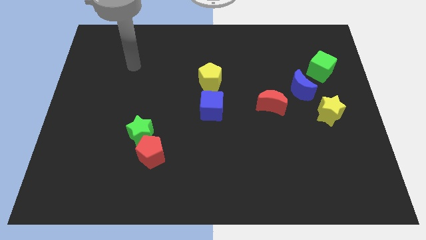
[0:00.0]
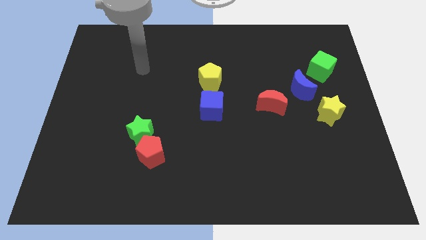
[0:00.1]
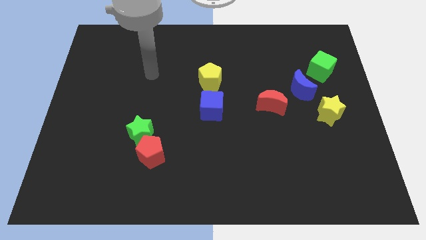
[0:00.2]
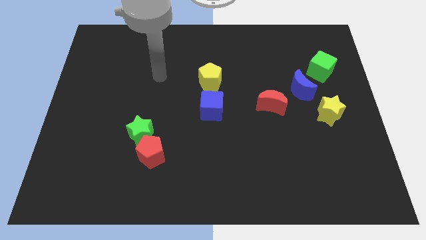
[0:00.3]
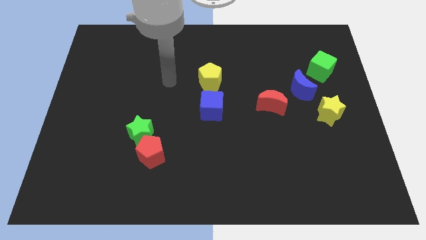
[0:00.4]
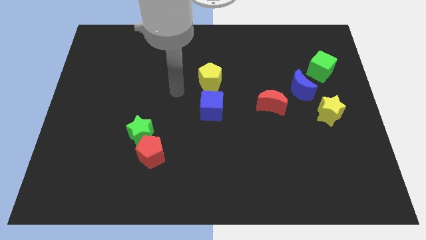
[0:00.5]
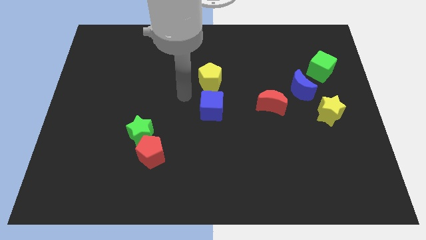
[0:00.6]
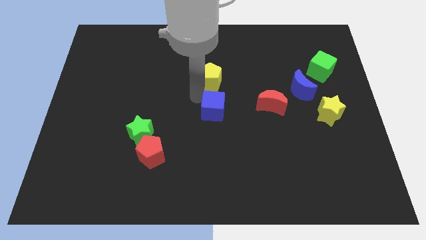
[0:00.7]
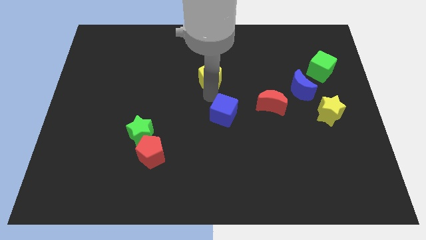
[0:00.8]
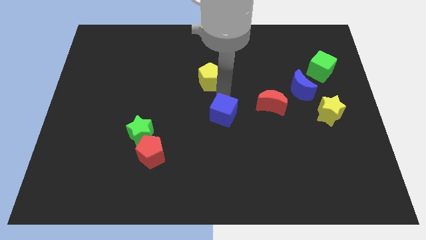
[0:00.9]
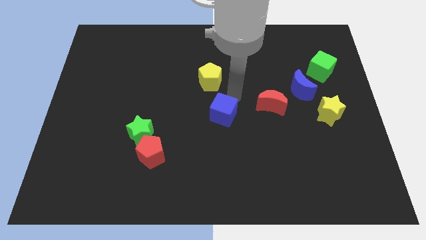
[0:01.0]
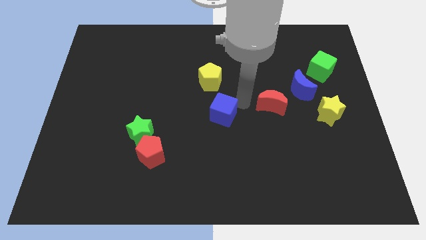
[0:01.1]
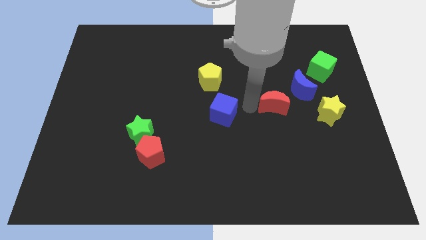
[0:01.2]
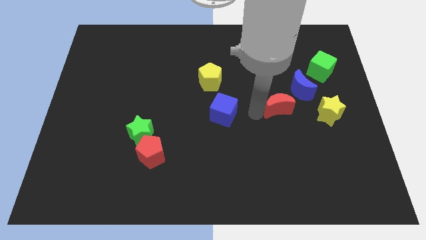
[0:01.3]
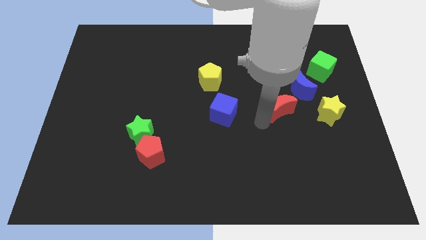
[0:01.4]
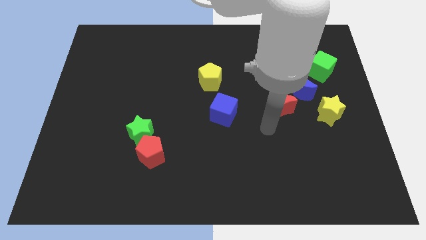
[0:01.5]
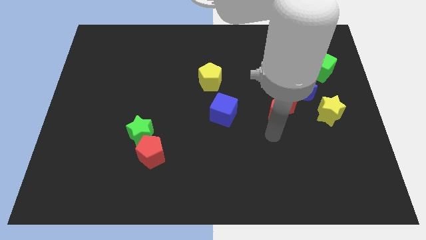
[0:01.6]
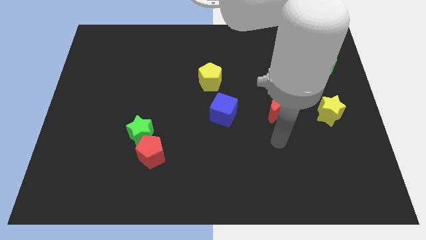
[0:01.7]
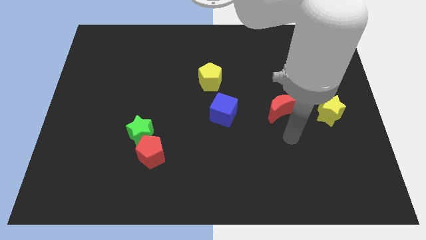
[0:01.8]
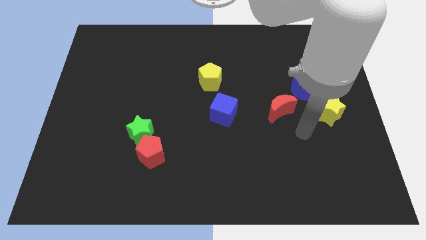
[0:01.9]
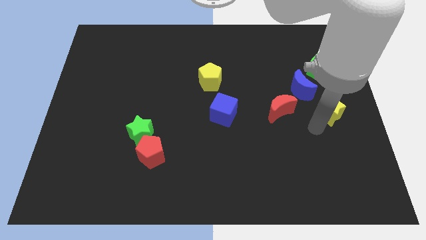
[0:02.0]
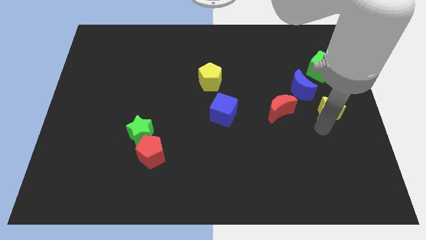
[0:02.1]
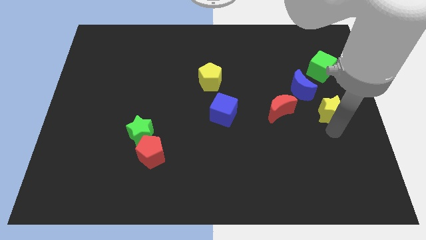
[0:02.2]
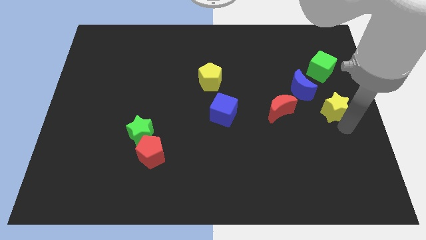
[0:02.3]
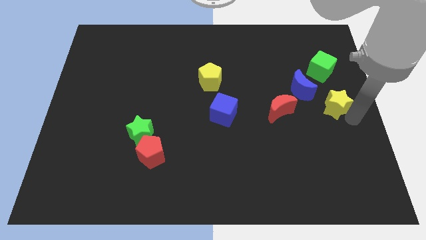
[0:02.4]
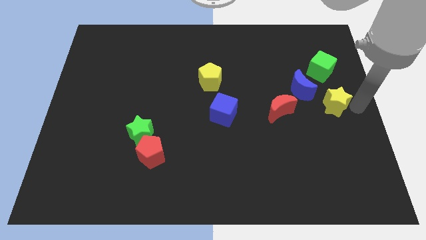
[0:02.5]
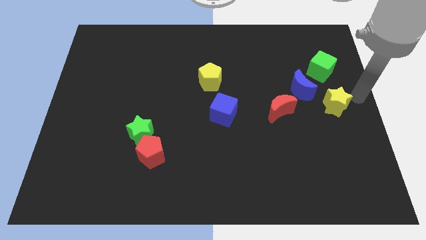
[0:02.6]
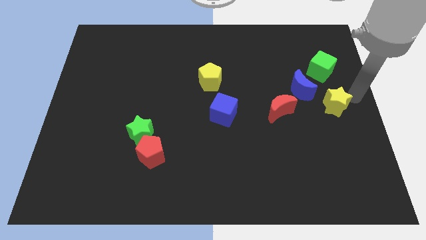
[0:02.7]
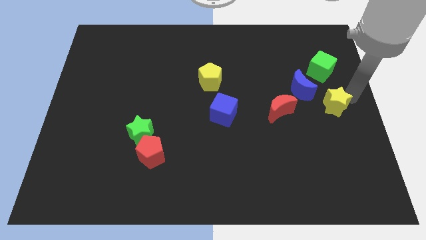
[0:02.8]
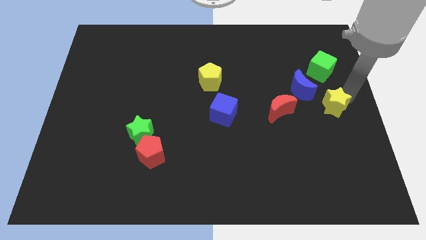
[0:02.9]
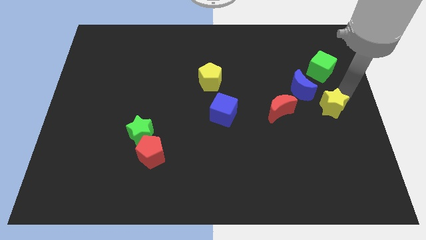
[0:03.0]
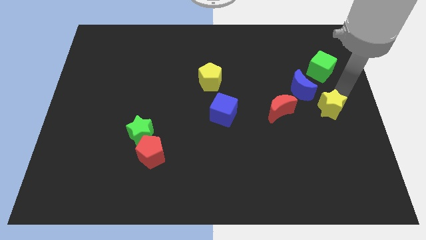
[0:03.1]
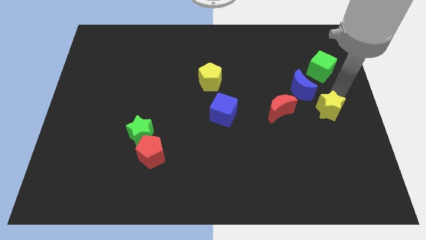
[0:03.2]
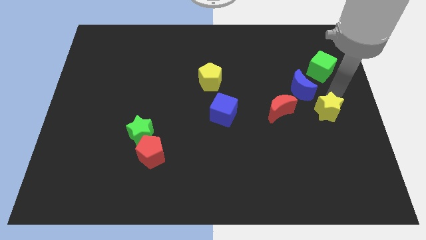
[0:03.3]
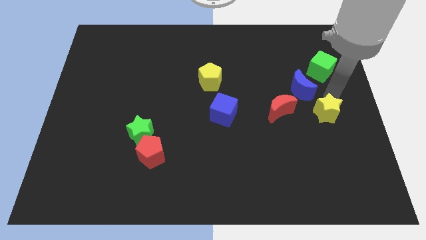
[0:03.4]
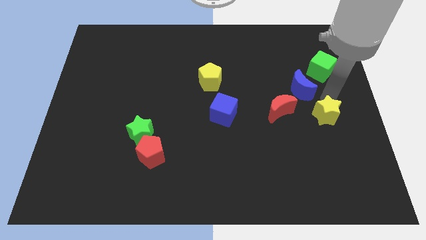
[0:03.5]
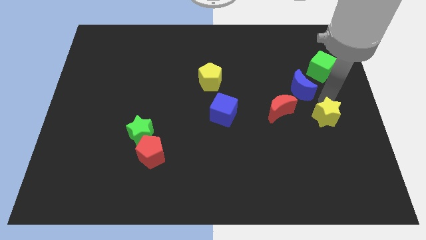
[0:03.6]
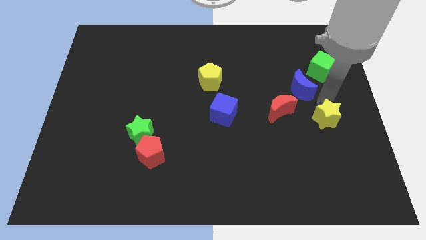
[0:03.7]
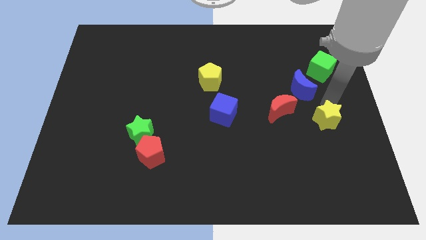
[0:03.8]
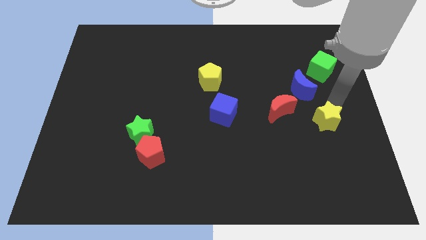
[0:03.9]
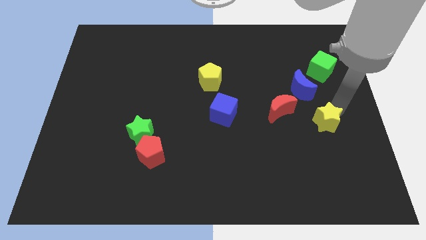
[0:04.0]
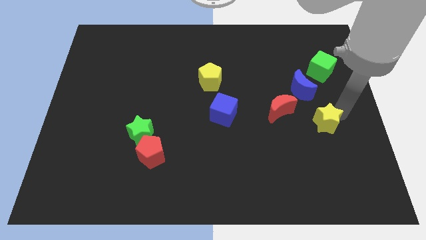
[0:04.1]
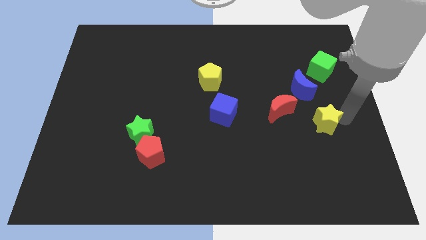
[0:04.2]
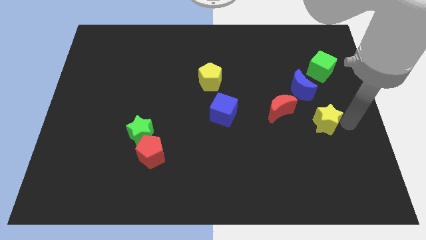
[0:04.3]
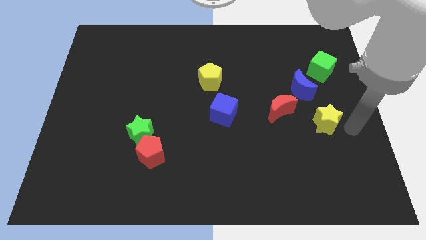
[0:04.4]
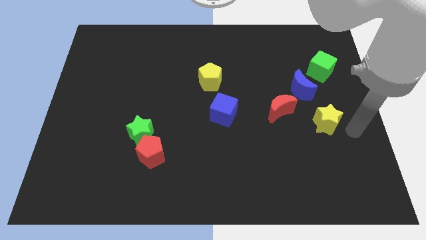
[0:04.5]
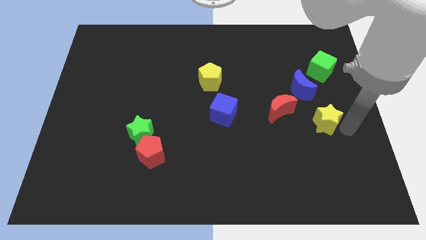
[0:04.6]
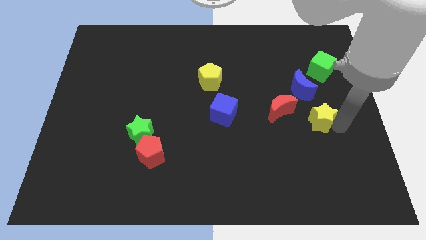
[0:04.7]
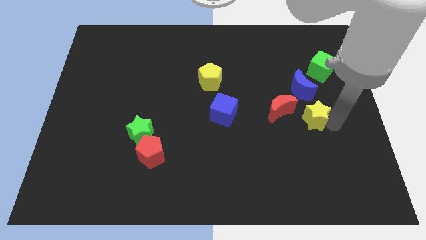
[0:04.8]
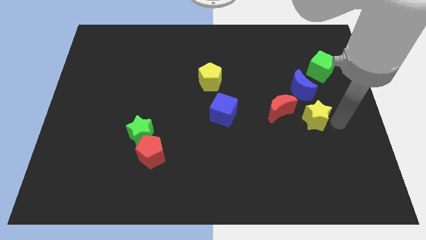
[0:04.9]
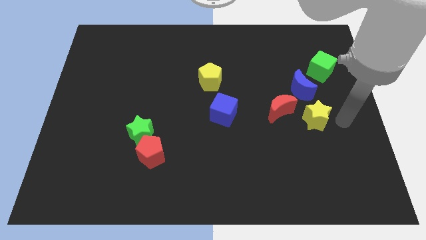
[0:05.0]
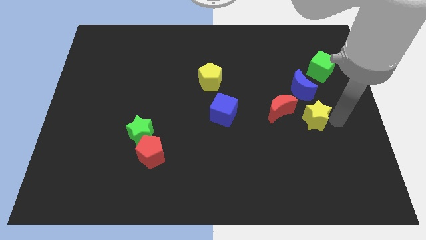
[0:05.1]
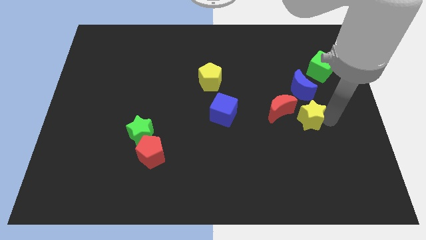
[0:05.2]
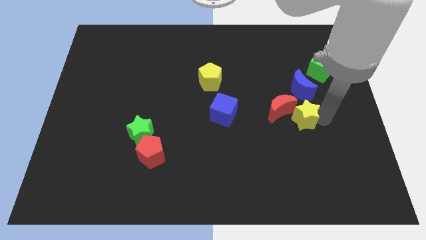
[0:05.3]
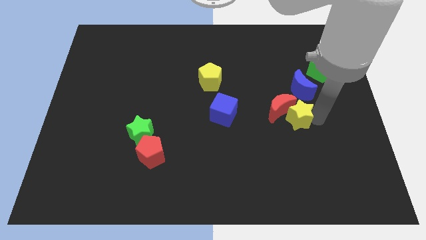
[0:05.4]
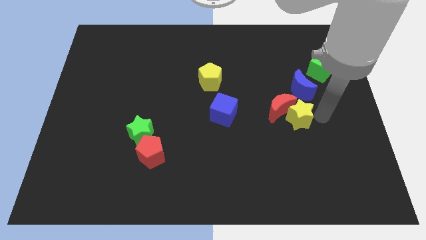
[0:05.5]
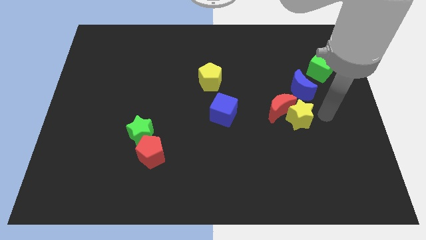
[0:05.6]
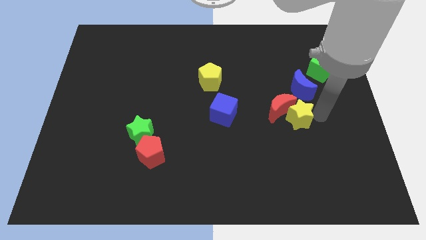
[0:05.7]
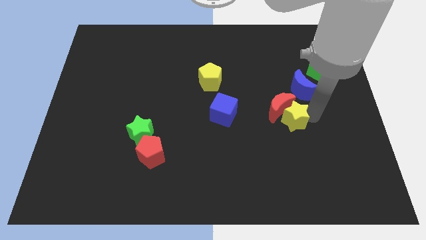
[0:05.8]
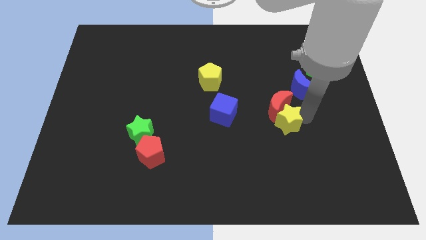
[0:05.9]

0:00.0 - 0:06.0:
push the yellow star to the bottom left side of the red moon
